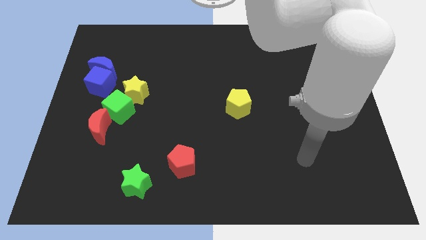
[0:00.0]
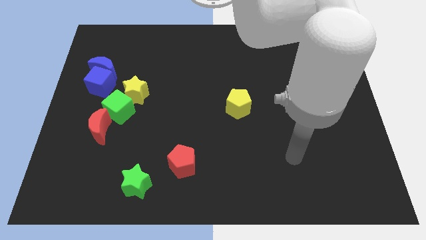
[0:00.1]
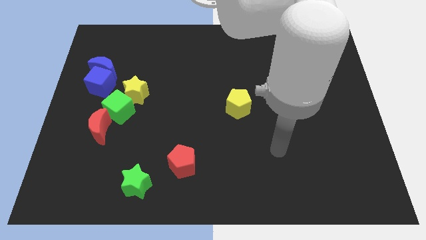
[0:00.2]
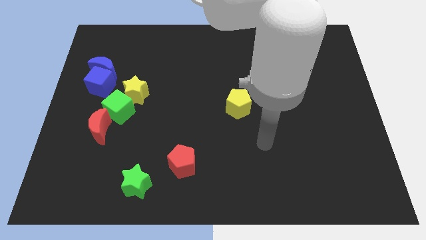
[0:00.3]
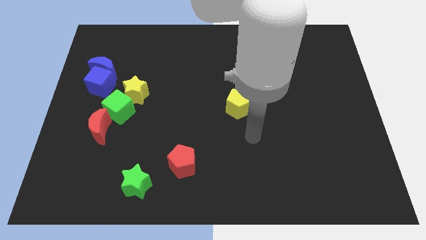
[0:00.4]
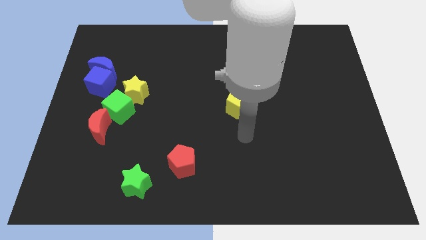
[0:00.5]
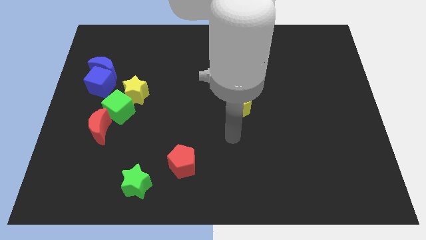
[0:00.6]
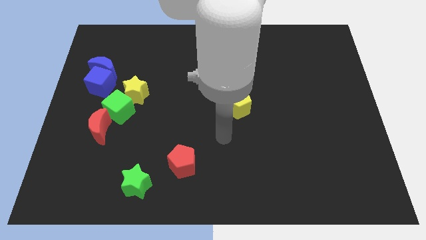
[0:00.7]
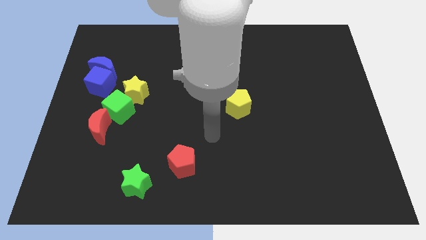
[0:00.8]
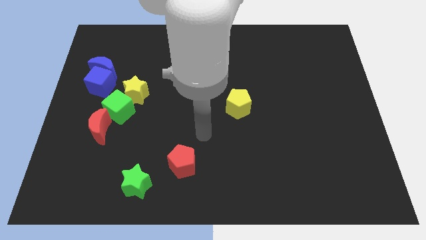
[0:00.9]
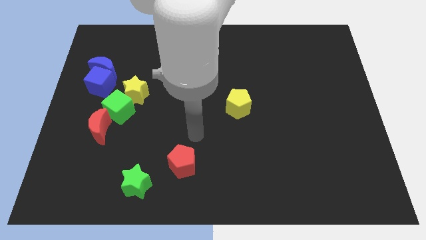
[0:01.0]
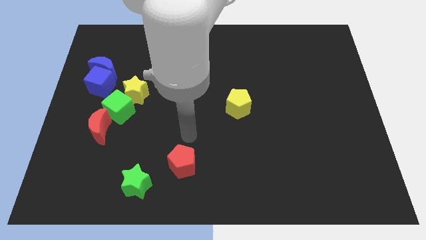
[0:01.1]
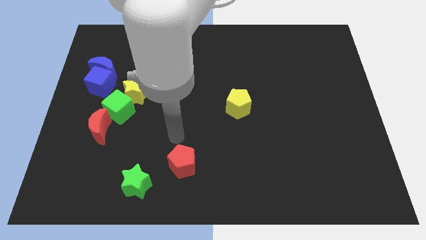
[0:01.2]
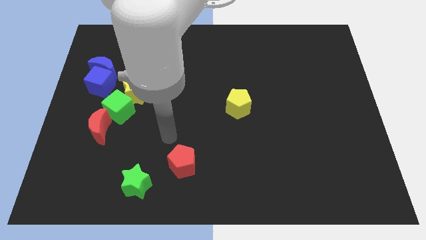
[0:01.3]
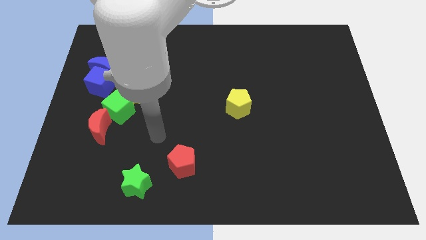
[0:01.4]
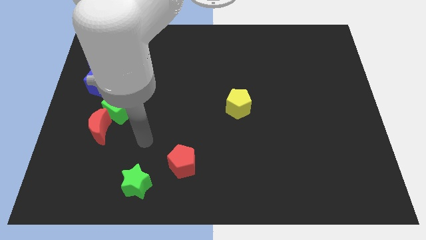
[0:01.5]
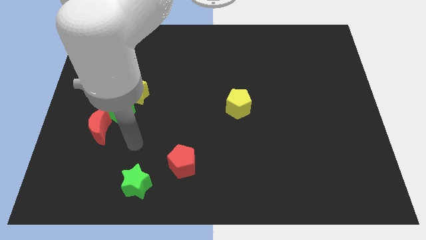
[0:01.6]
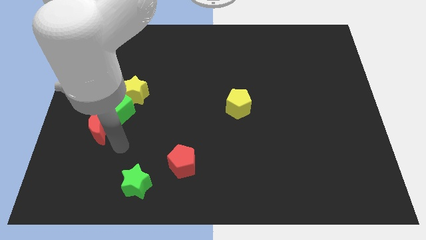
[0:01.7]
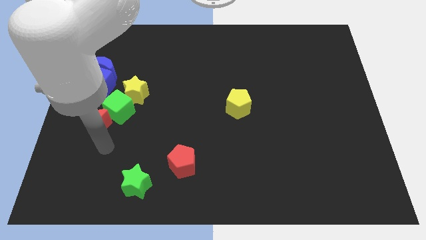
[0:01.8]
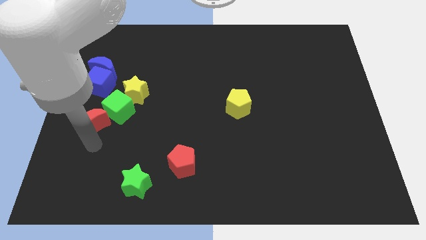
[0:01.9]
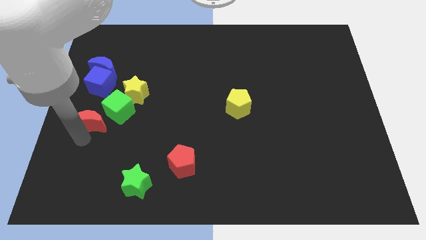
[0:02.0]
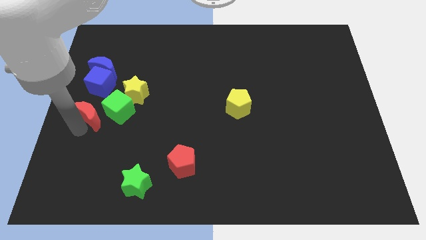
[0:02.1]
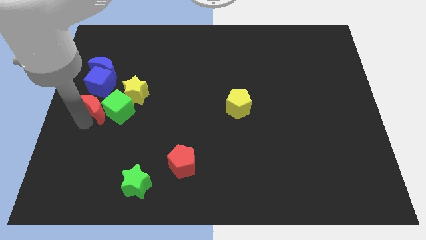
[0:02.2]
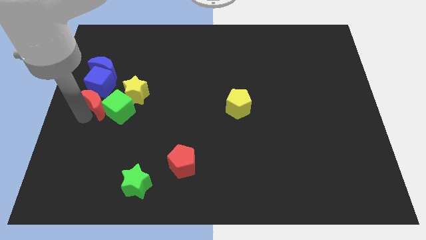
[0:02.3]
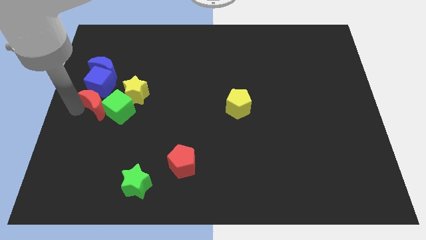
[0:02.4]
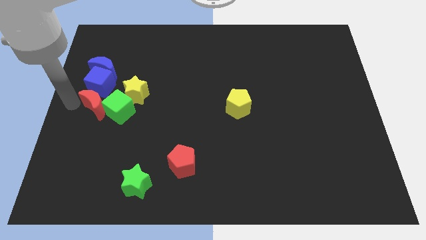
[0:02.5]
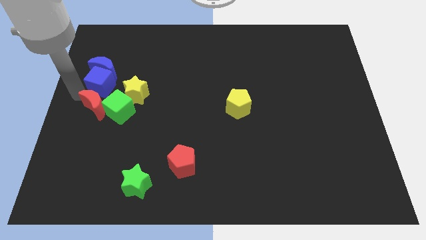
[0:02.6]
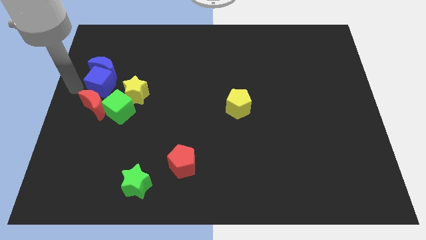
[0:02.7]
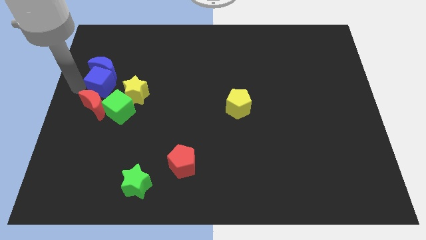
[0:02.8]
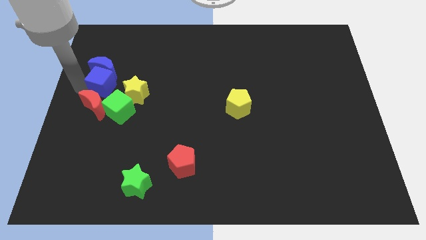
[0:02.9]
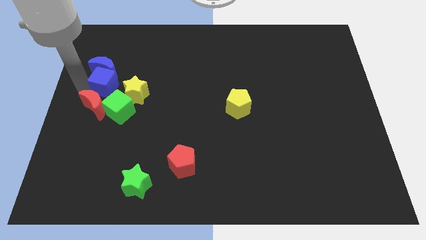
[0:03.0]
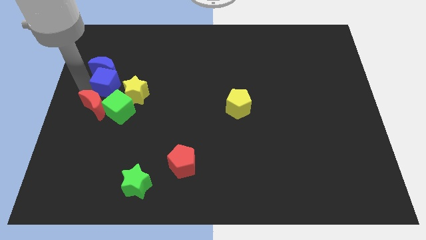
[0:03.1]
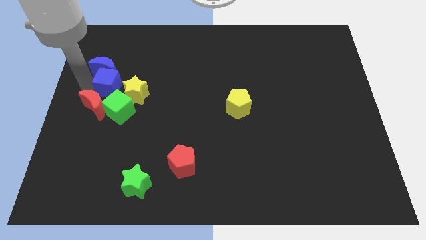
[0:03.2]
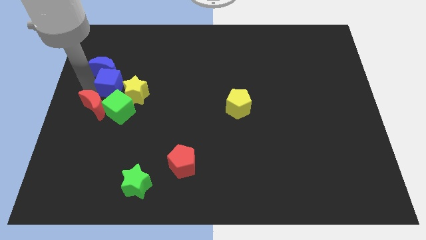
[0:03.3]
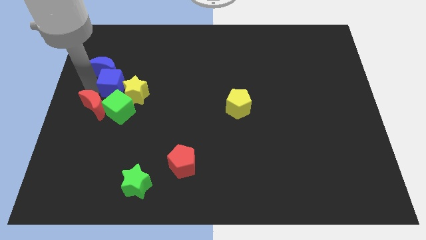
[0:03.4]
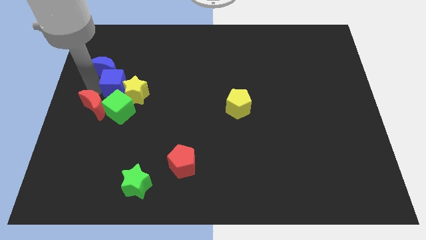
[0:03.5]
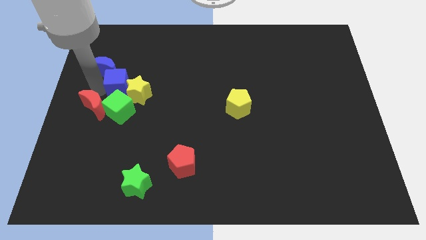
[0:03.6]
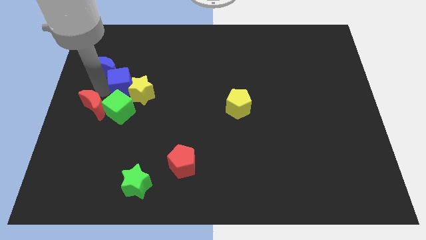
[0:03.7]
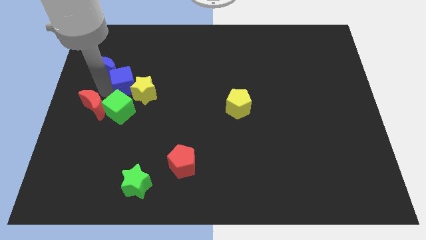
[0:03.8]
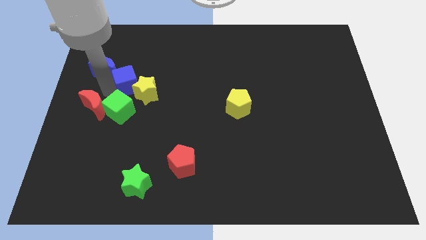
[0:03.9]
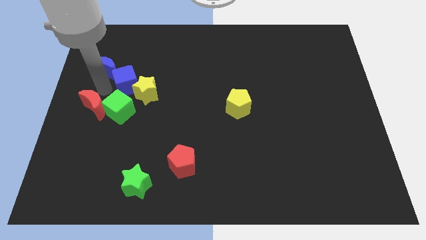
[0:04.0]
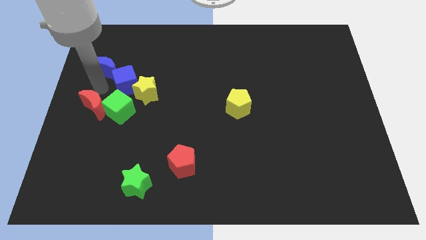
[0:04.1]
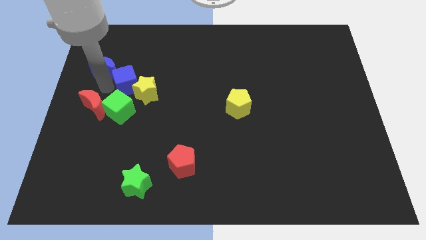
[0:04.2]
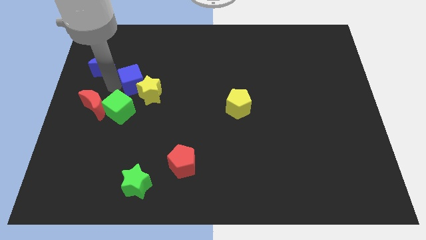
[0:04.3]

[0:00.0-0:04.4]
slide the blue cube right a little bit

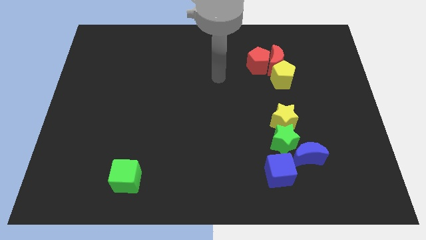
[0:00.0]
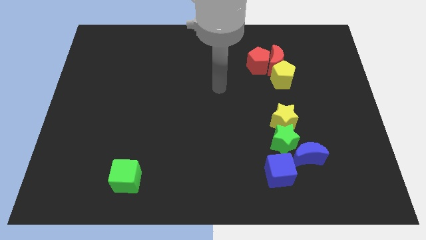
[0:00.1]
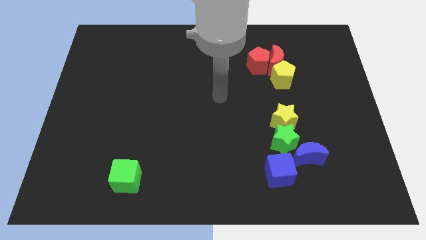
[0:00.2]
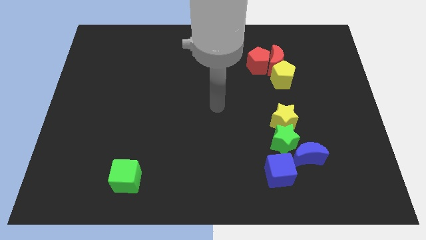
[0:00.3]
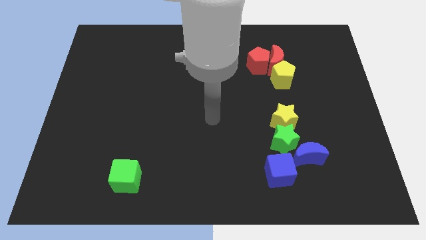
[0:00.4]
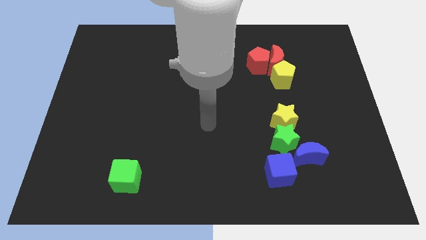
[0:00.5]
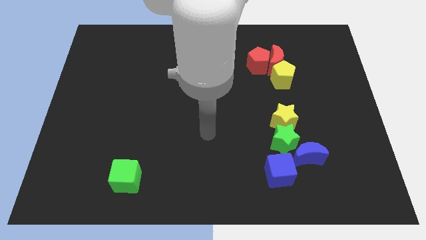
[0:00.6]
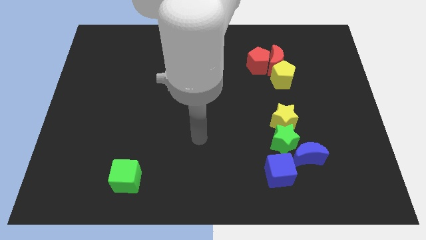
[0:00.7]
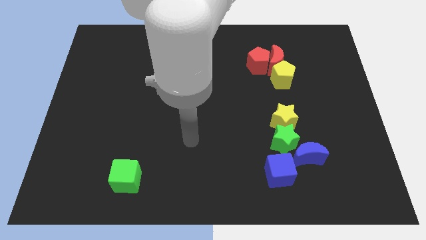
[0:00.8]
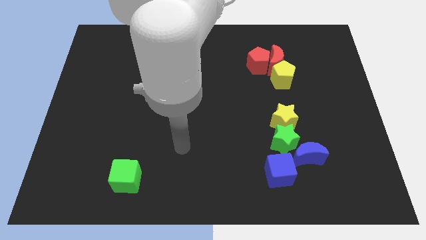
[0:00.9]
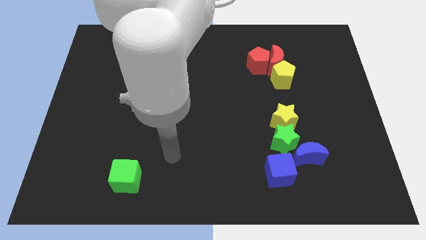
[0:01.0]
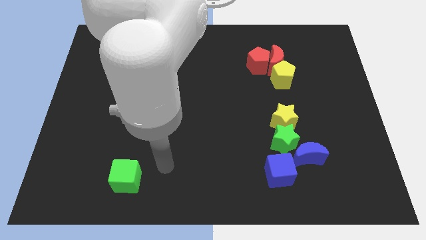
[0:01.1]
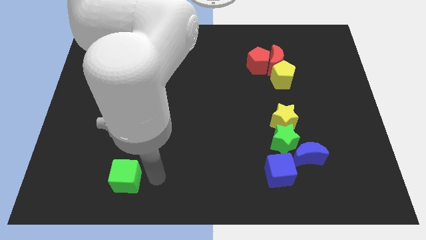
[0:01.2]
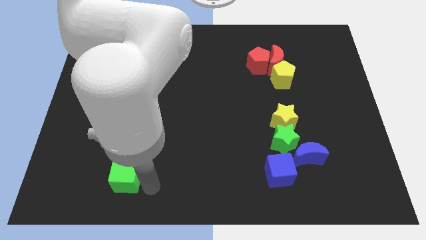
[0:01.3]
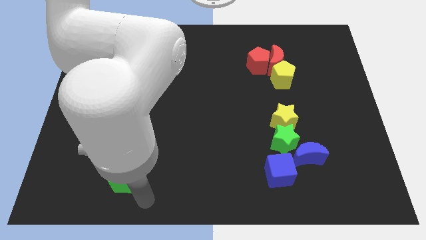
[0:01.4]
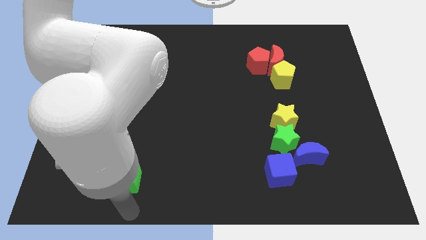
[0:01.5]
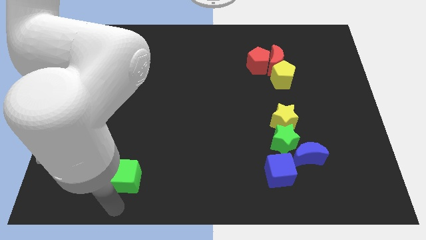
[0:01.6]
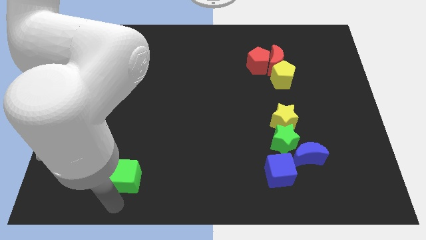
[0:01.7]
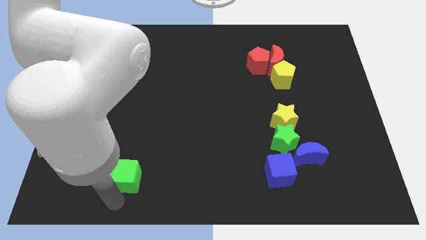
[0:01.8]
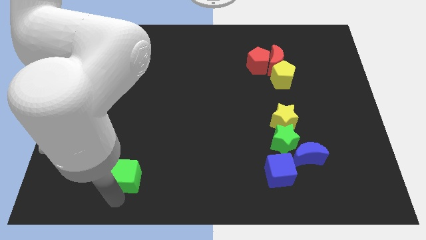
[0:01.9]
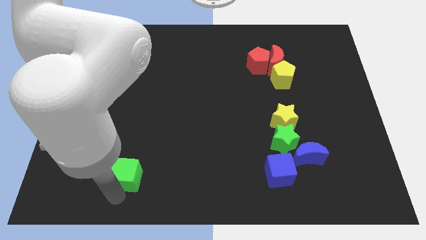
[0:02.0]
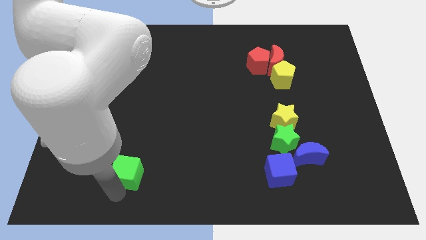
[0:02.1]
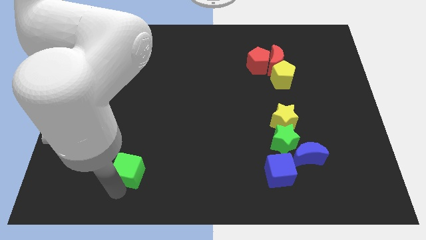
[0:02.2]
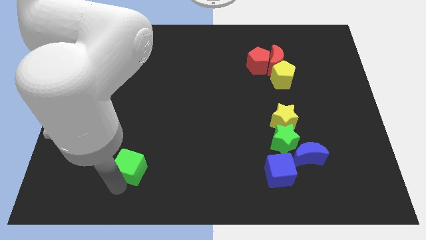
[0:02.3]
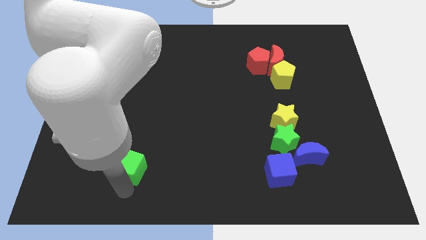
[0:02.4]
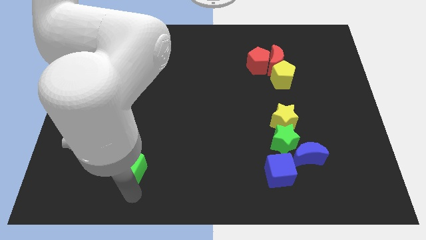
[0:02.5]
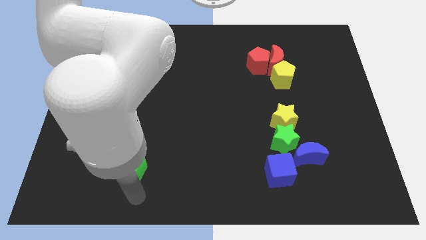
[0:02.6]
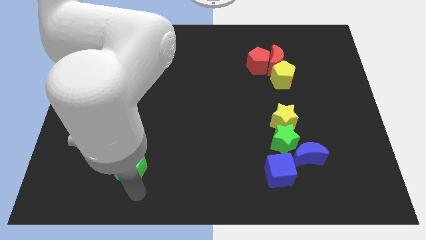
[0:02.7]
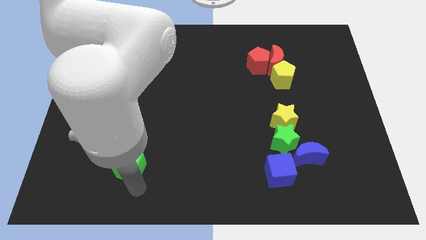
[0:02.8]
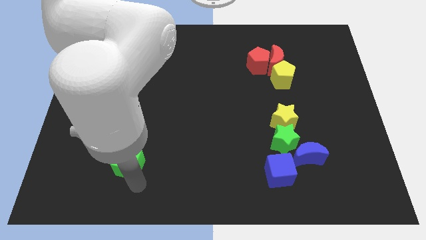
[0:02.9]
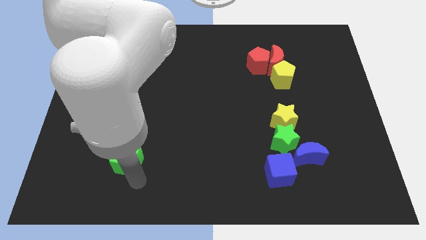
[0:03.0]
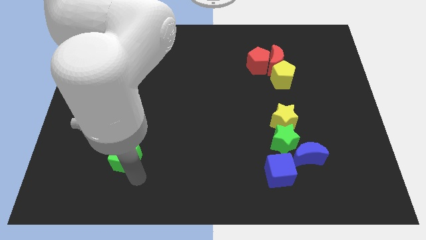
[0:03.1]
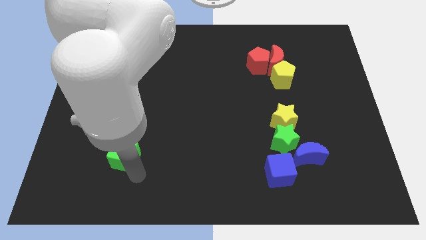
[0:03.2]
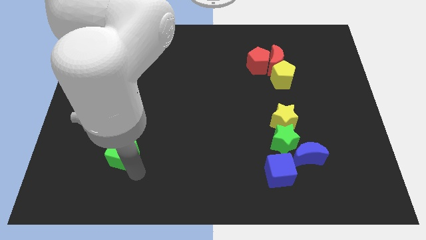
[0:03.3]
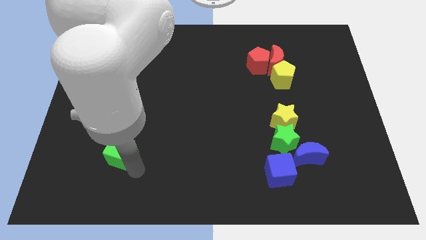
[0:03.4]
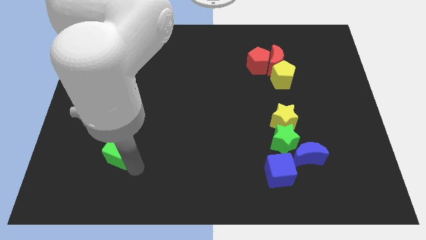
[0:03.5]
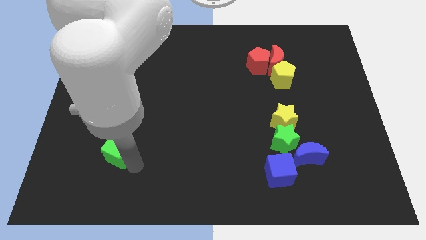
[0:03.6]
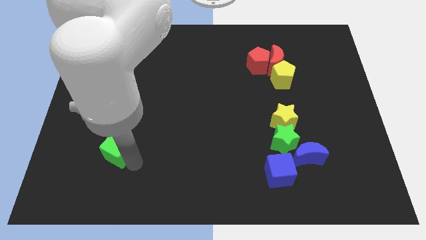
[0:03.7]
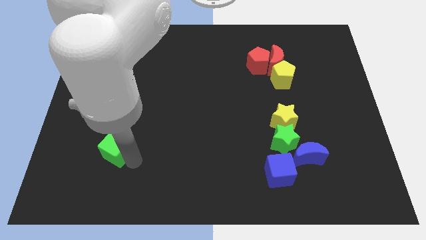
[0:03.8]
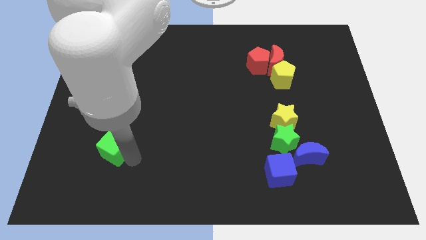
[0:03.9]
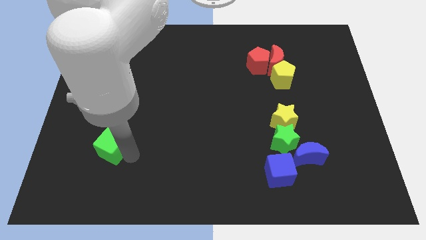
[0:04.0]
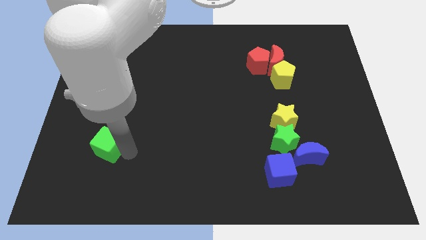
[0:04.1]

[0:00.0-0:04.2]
push the green cube a little up
